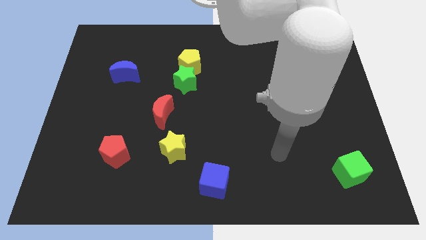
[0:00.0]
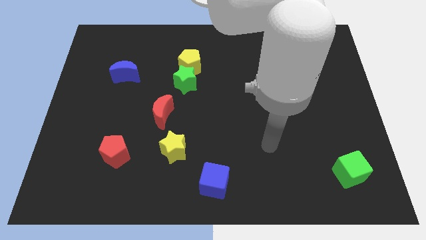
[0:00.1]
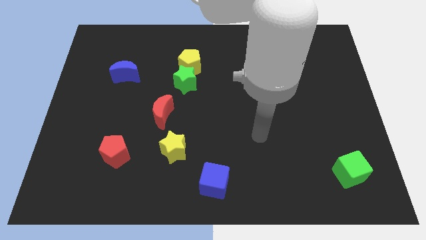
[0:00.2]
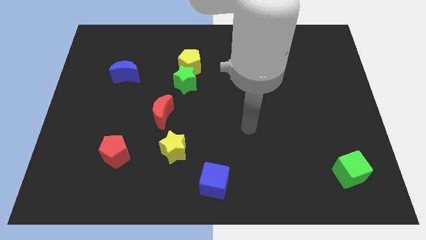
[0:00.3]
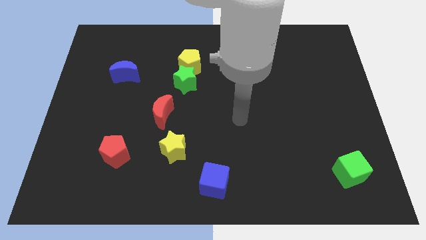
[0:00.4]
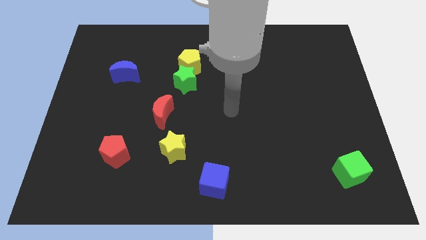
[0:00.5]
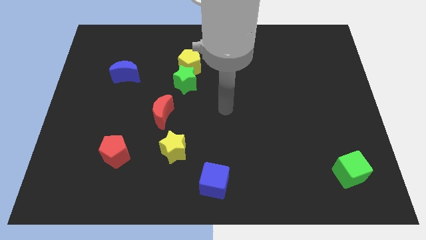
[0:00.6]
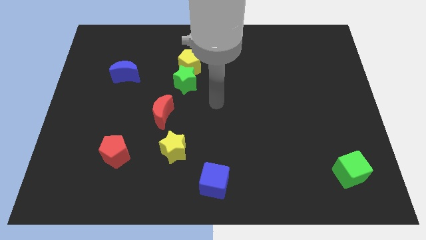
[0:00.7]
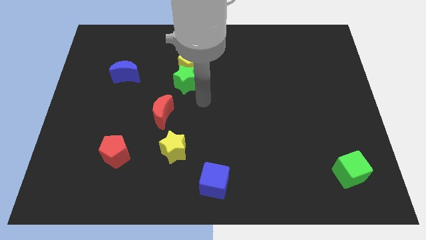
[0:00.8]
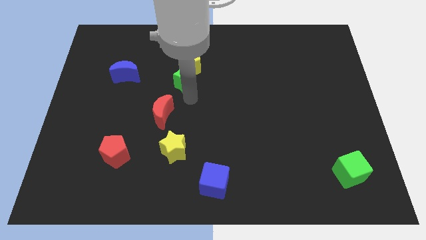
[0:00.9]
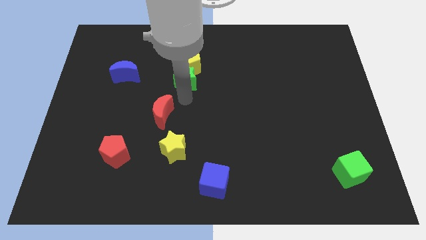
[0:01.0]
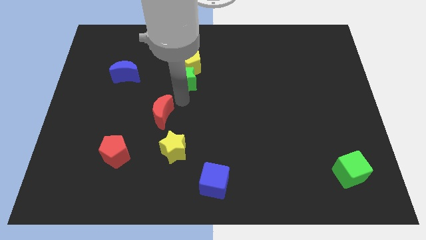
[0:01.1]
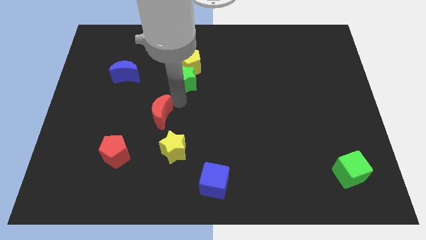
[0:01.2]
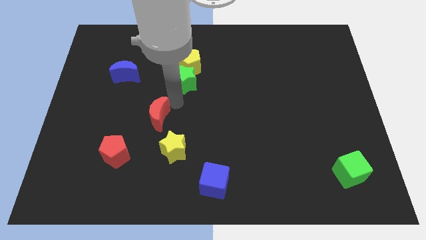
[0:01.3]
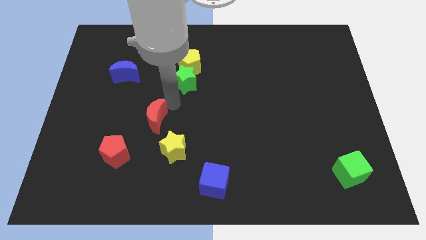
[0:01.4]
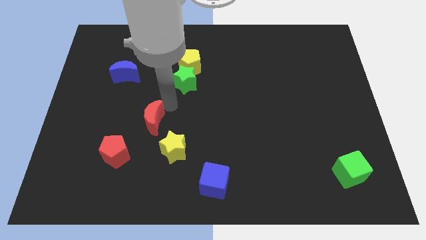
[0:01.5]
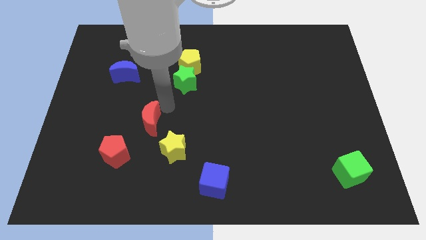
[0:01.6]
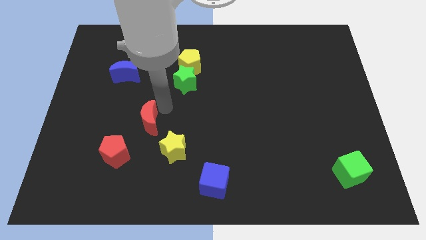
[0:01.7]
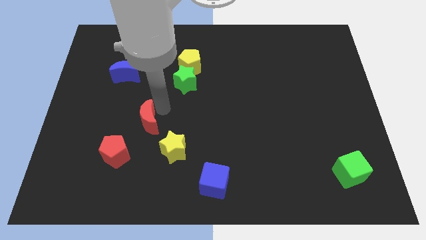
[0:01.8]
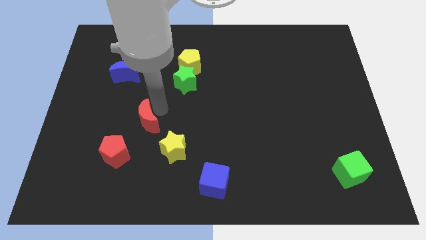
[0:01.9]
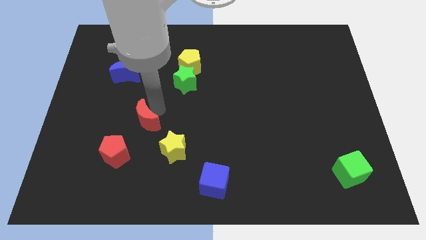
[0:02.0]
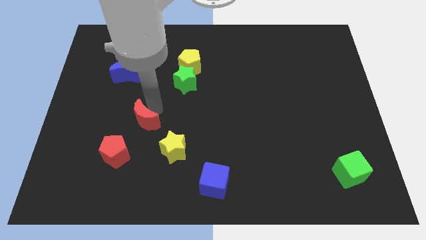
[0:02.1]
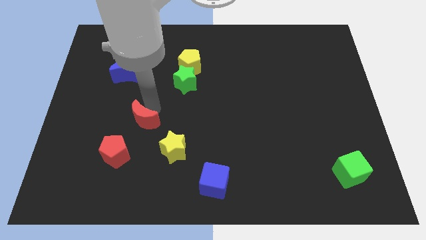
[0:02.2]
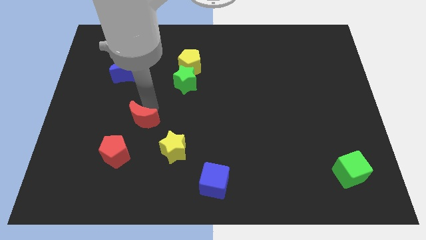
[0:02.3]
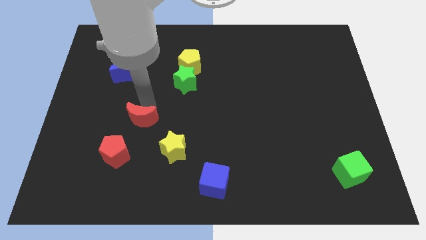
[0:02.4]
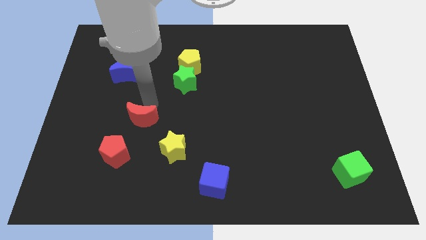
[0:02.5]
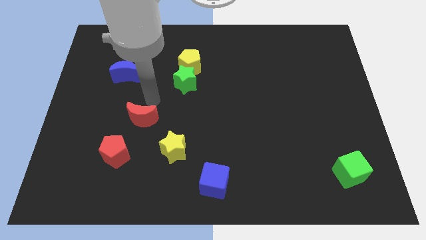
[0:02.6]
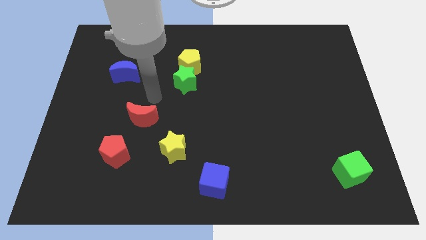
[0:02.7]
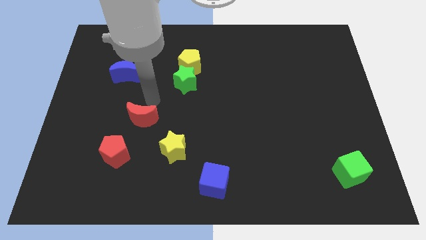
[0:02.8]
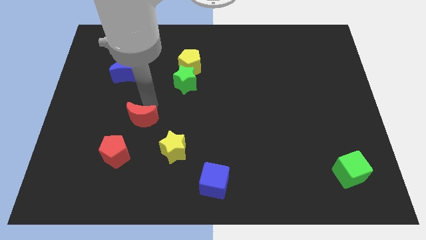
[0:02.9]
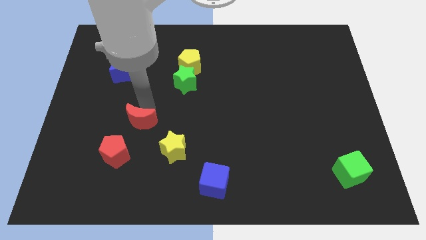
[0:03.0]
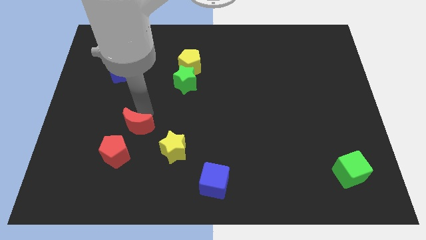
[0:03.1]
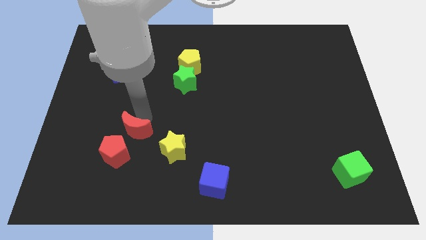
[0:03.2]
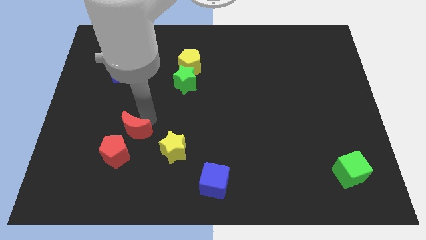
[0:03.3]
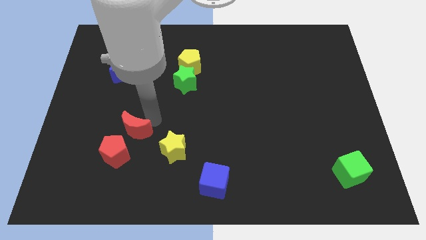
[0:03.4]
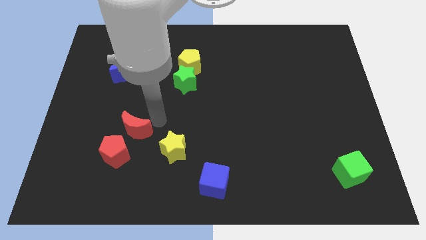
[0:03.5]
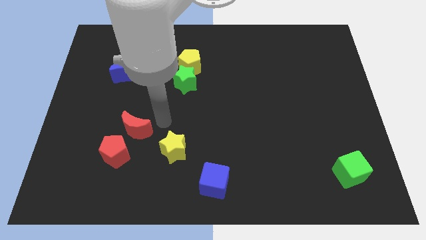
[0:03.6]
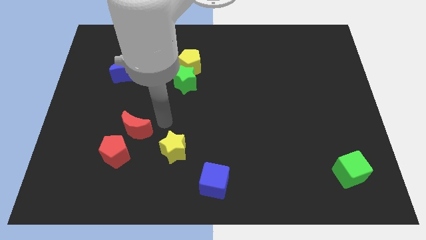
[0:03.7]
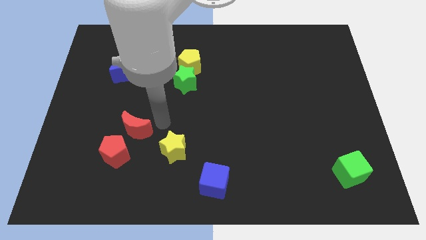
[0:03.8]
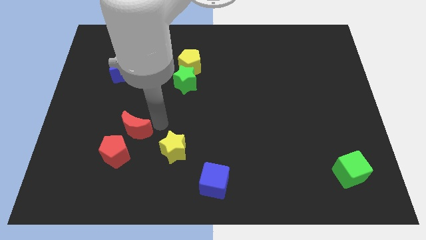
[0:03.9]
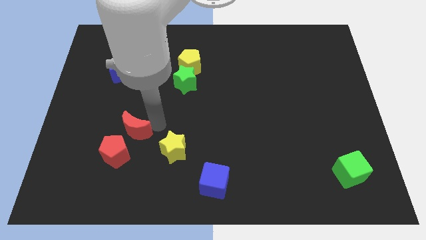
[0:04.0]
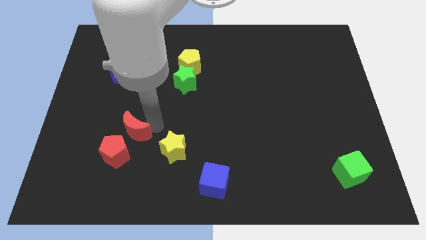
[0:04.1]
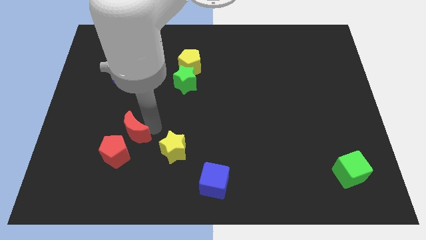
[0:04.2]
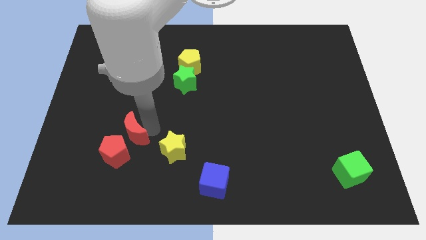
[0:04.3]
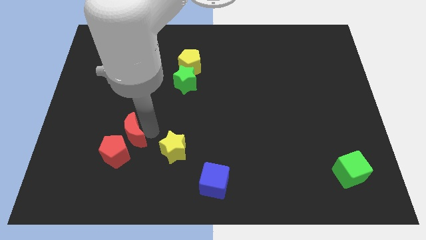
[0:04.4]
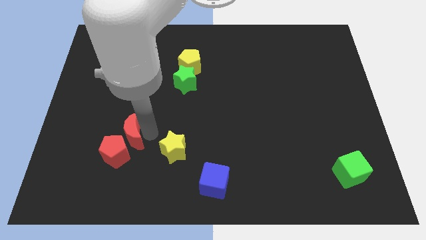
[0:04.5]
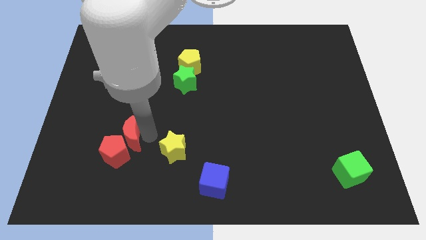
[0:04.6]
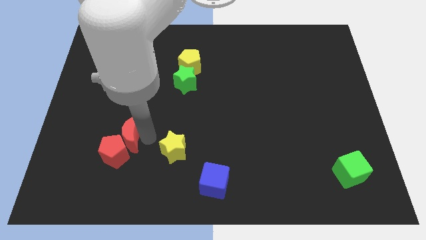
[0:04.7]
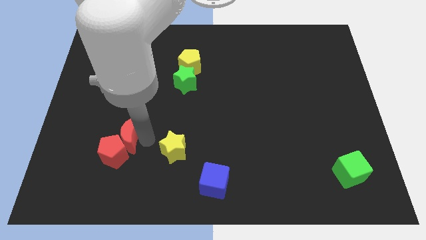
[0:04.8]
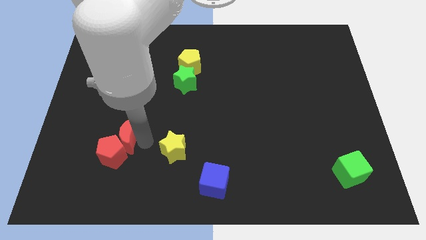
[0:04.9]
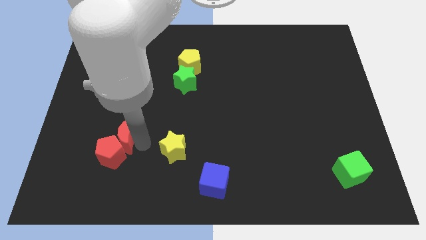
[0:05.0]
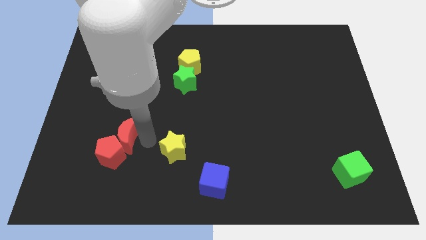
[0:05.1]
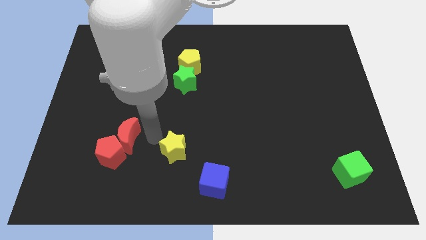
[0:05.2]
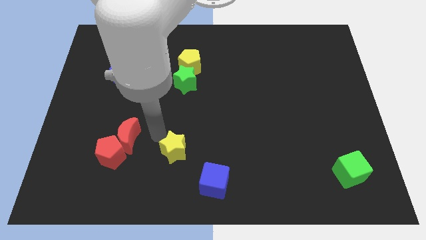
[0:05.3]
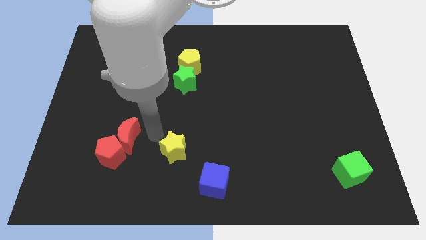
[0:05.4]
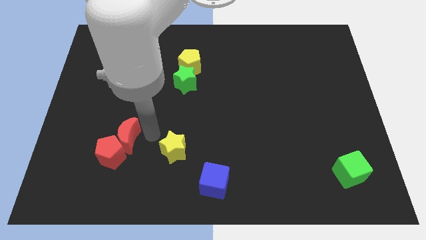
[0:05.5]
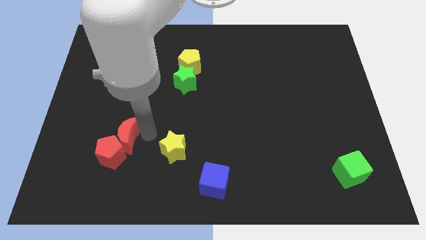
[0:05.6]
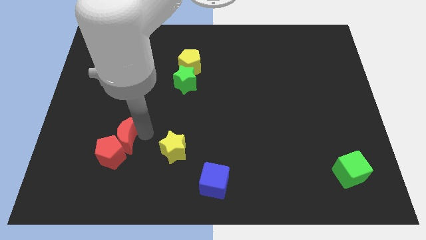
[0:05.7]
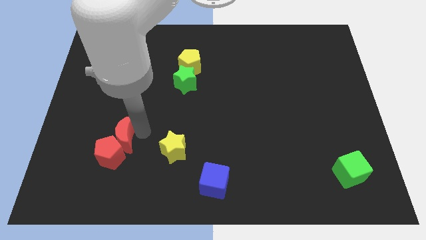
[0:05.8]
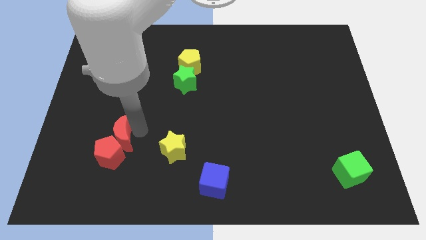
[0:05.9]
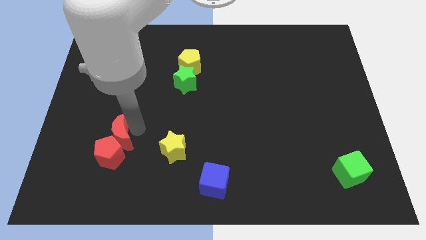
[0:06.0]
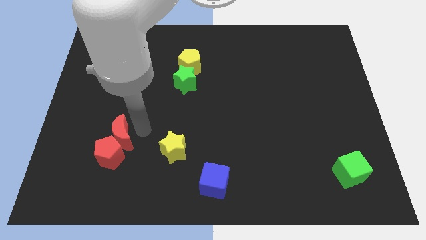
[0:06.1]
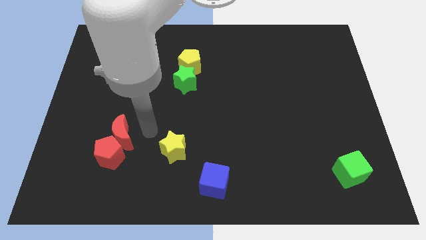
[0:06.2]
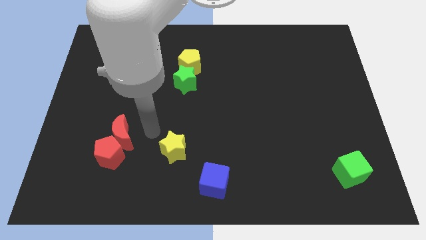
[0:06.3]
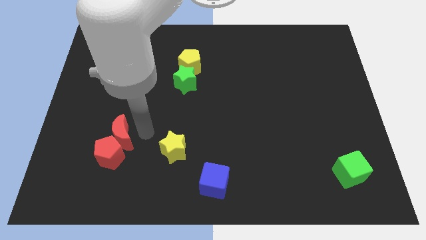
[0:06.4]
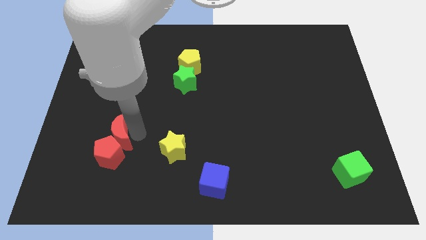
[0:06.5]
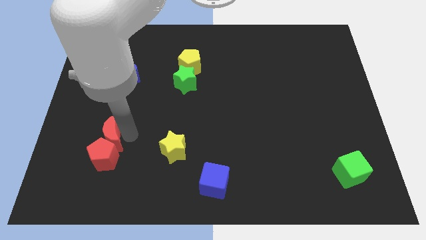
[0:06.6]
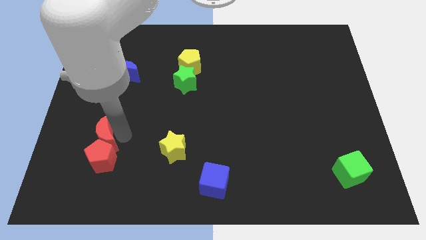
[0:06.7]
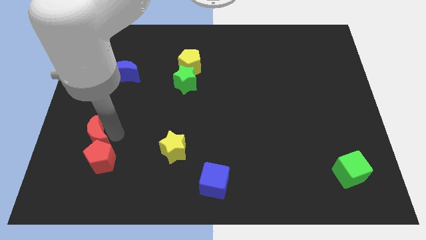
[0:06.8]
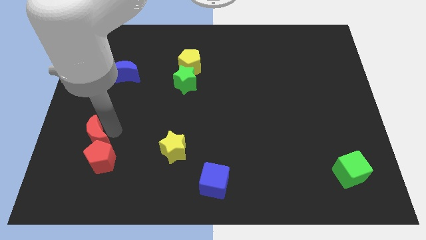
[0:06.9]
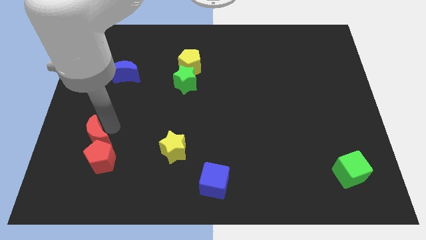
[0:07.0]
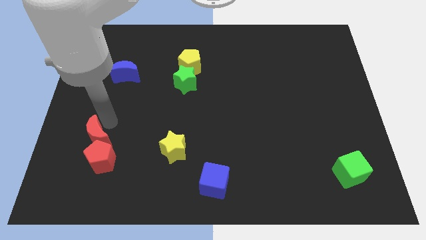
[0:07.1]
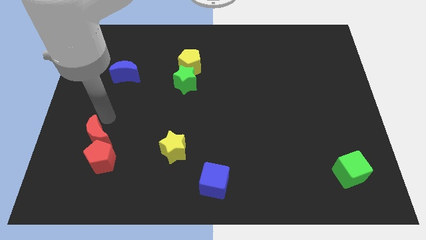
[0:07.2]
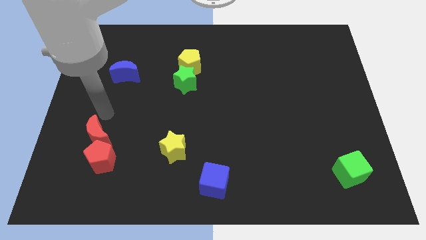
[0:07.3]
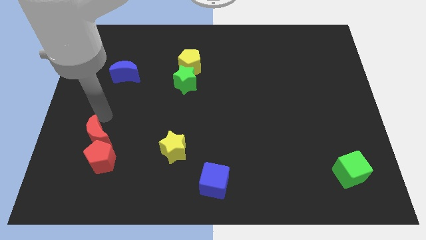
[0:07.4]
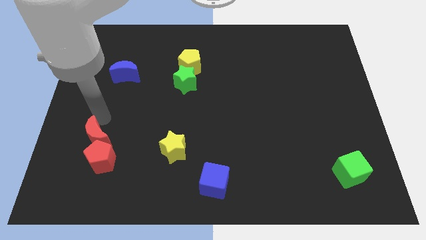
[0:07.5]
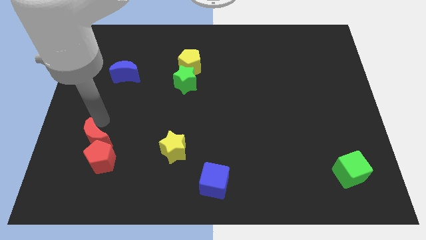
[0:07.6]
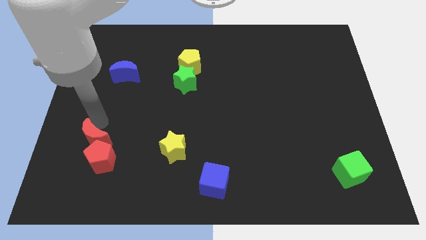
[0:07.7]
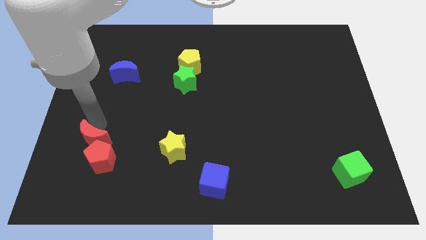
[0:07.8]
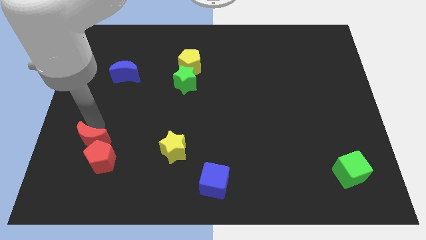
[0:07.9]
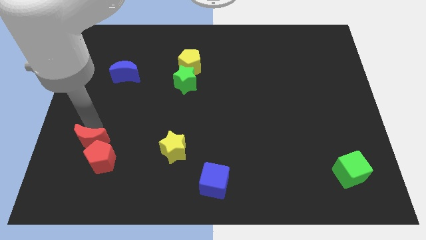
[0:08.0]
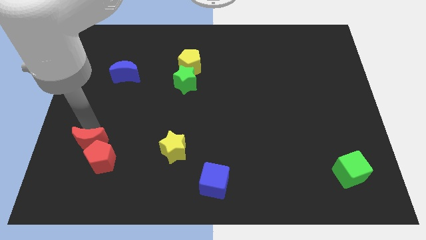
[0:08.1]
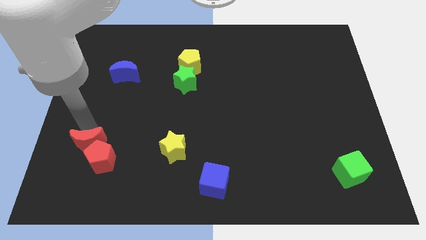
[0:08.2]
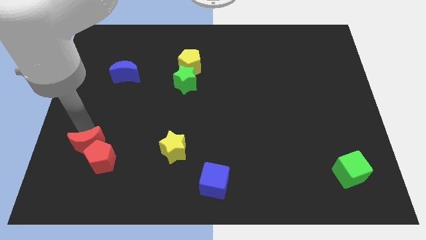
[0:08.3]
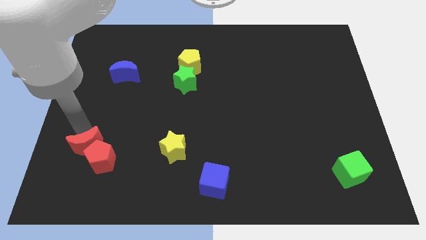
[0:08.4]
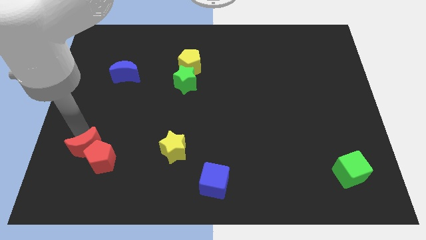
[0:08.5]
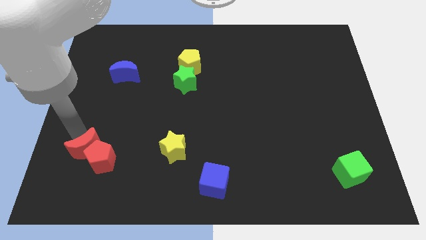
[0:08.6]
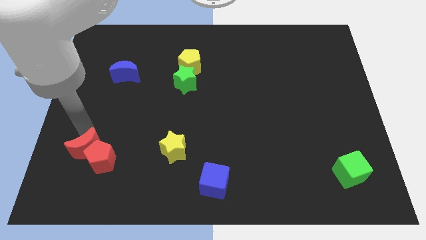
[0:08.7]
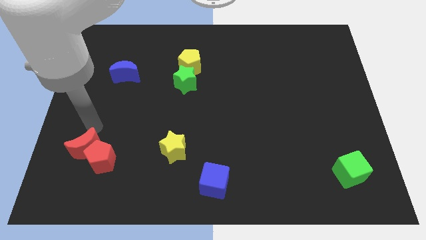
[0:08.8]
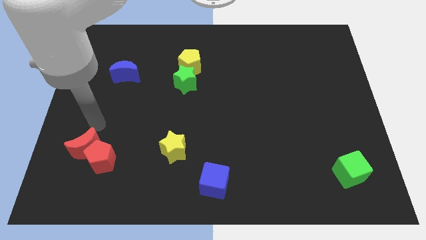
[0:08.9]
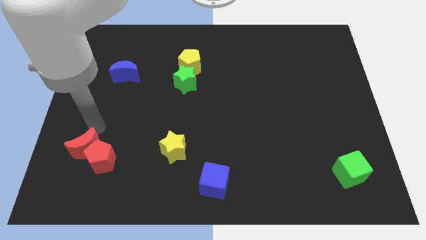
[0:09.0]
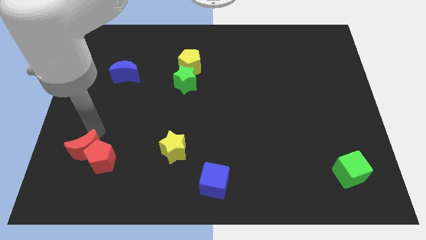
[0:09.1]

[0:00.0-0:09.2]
push the red moon diagonally down and to the left of the red pentagon
